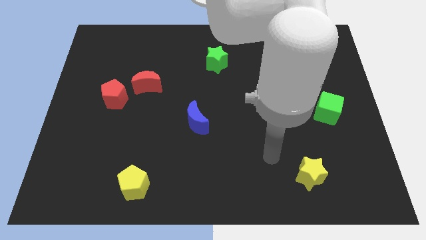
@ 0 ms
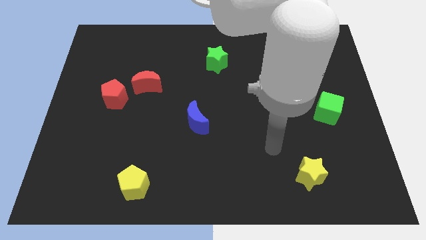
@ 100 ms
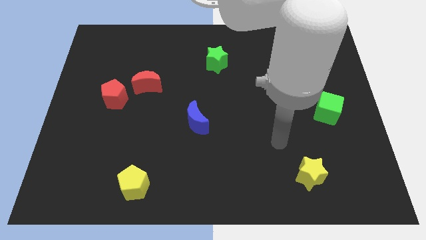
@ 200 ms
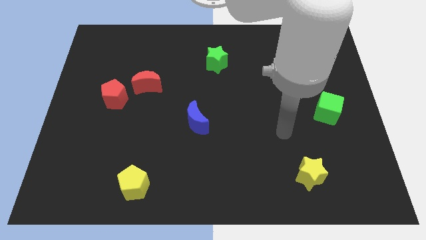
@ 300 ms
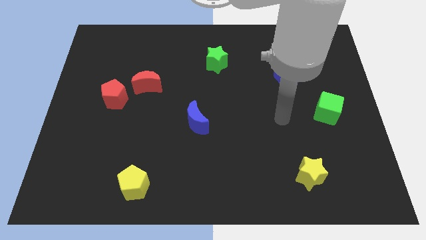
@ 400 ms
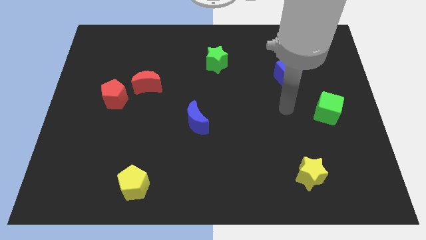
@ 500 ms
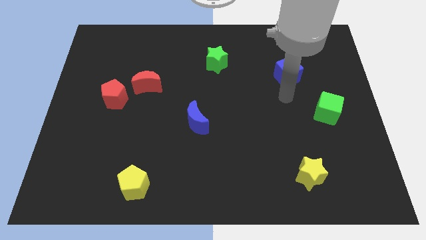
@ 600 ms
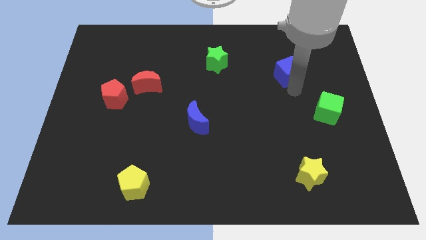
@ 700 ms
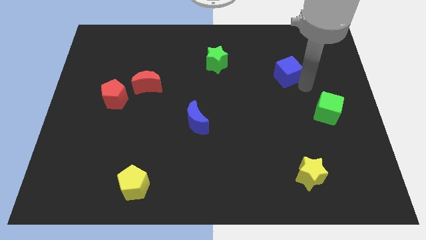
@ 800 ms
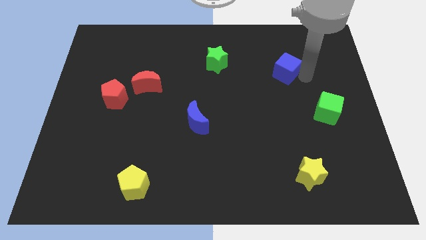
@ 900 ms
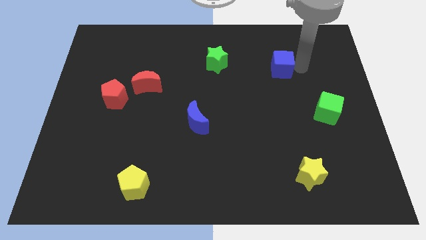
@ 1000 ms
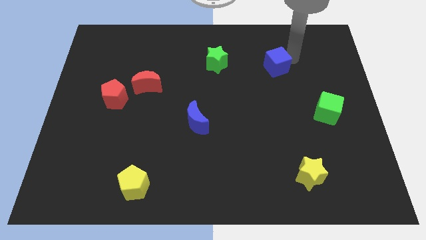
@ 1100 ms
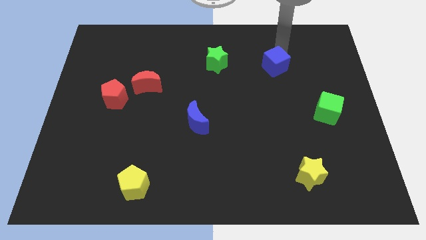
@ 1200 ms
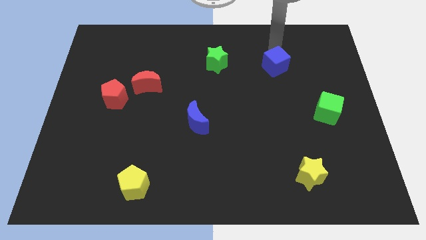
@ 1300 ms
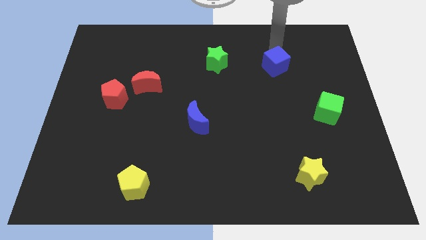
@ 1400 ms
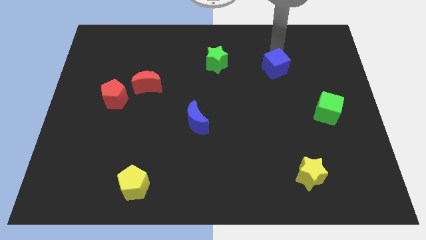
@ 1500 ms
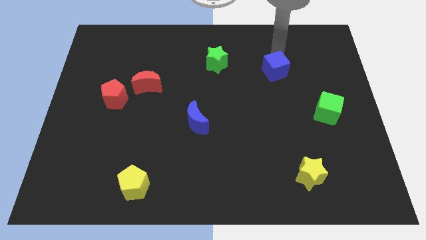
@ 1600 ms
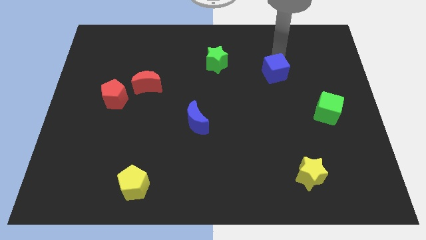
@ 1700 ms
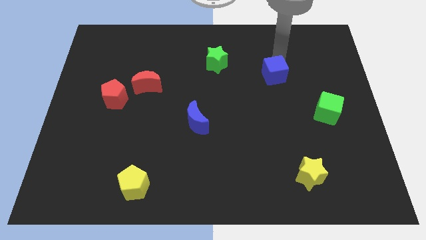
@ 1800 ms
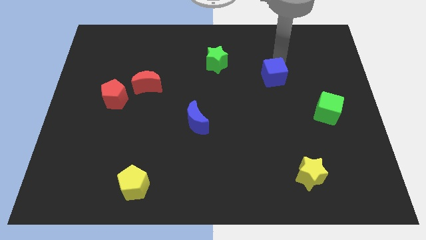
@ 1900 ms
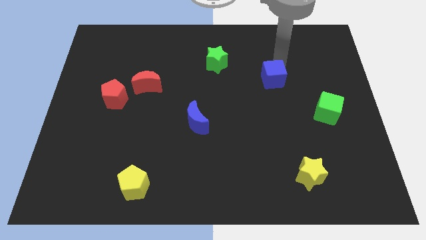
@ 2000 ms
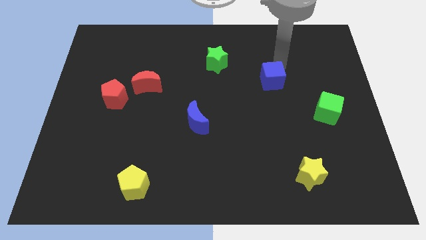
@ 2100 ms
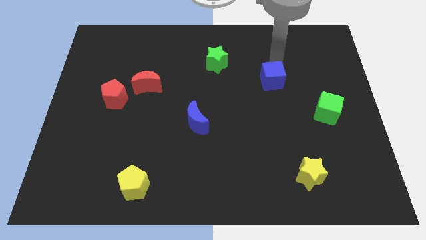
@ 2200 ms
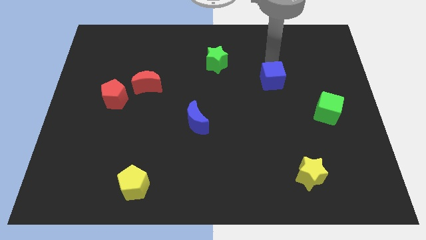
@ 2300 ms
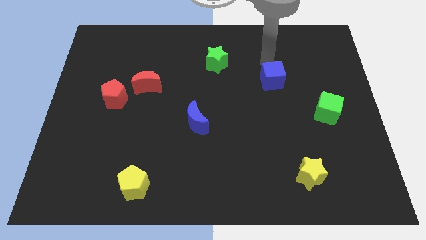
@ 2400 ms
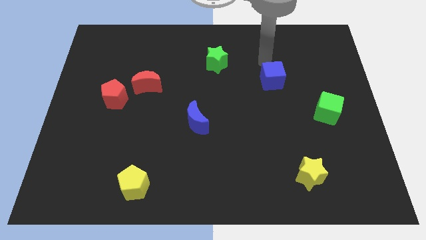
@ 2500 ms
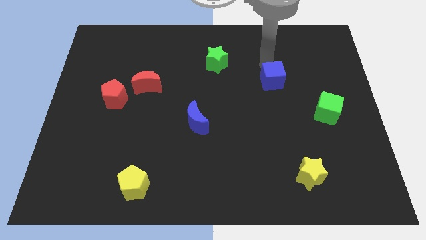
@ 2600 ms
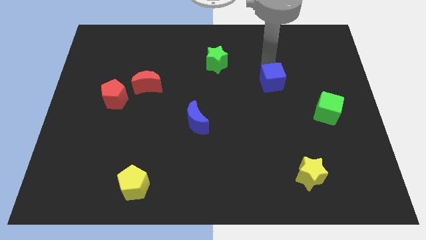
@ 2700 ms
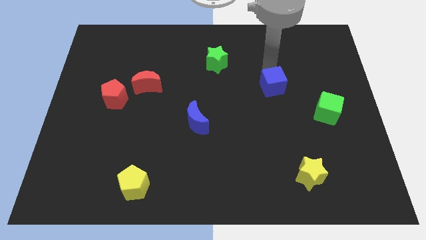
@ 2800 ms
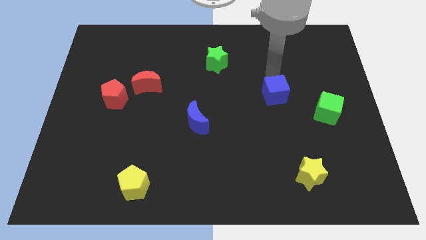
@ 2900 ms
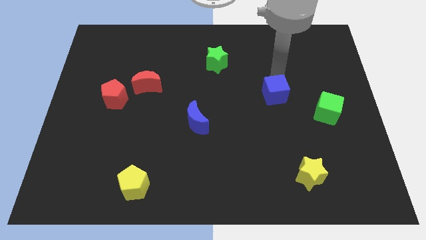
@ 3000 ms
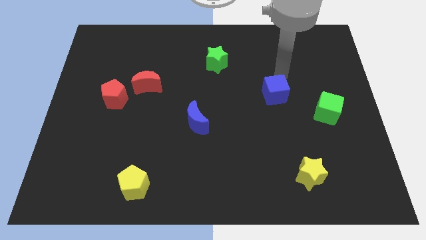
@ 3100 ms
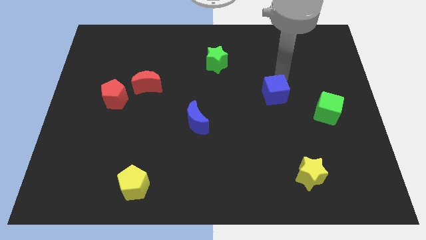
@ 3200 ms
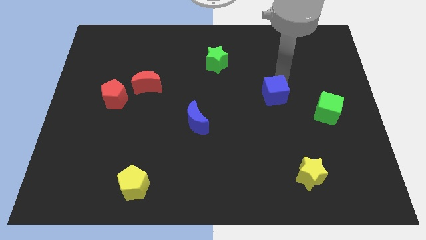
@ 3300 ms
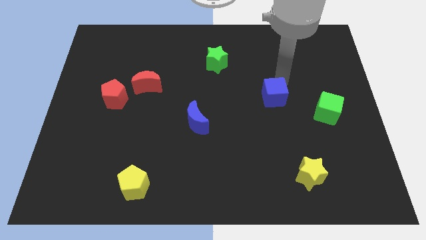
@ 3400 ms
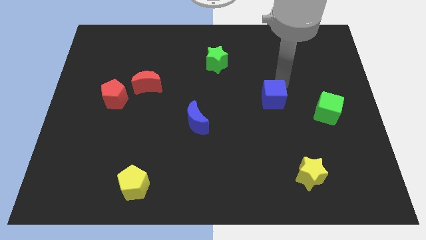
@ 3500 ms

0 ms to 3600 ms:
slide the blue cube slightly downwards

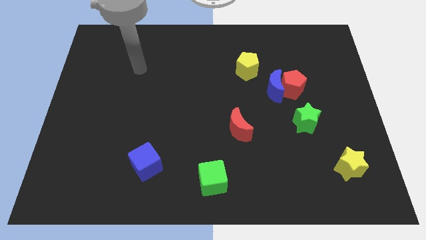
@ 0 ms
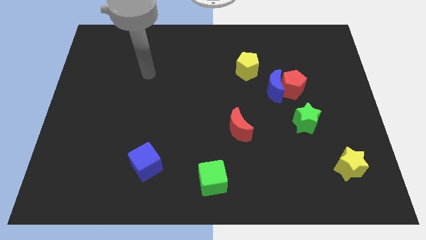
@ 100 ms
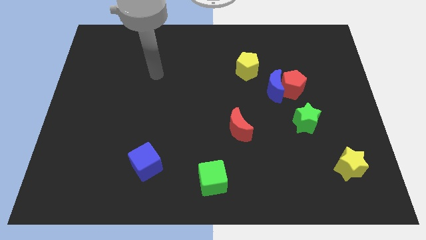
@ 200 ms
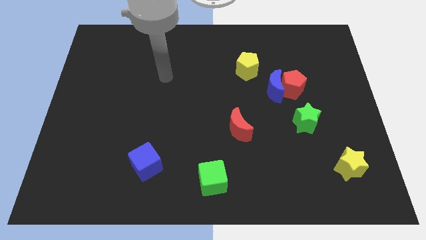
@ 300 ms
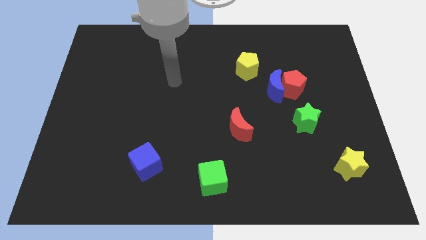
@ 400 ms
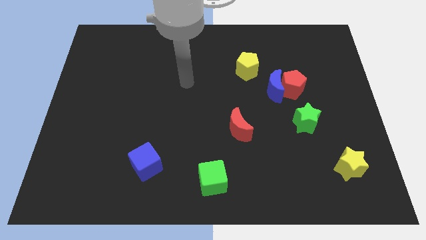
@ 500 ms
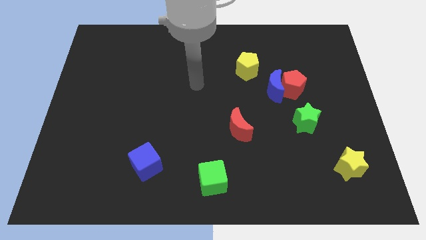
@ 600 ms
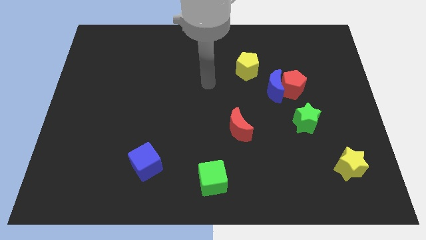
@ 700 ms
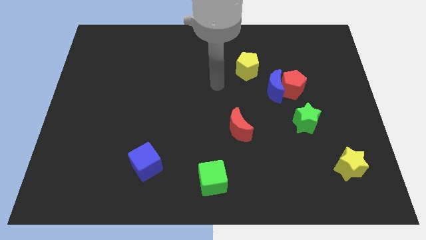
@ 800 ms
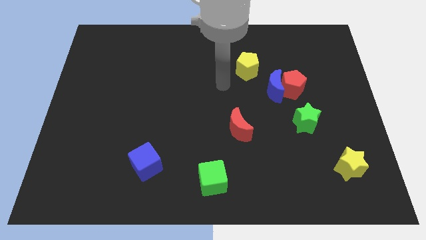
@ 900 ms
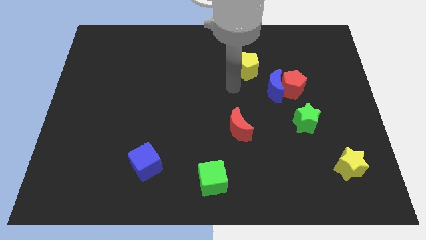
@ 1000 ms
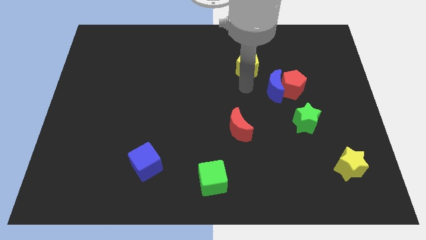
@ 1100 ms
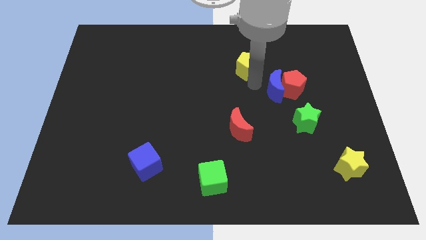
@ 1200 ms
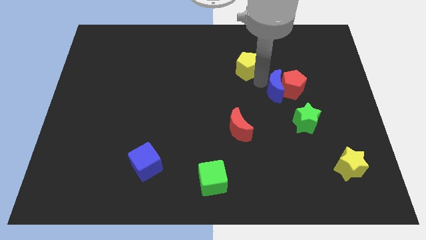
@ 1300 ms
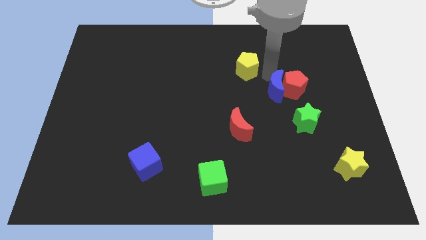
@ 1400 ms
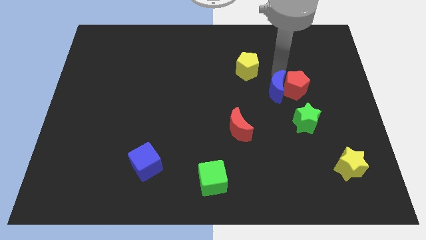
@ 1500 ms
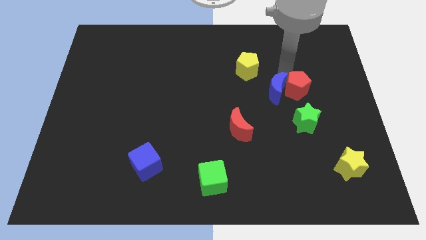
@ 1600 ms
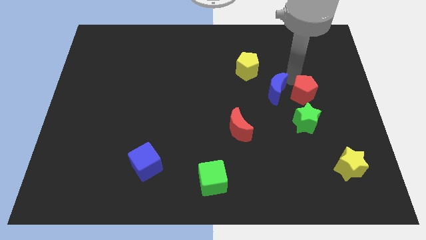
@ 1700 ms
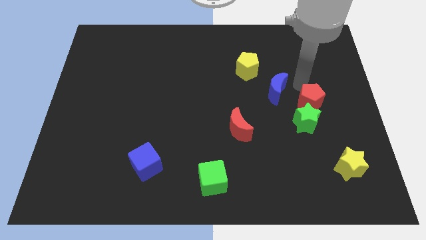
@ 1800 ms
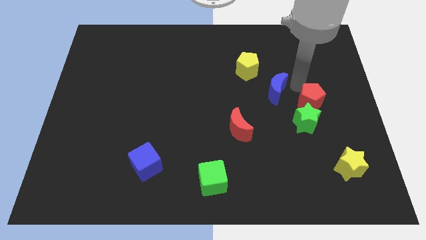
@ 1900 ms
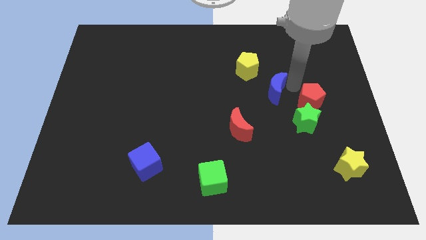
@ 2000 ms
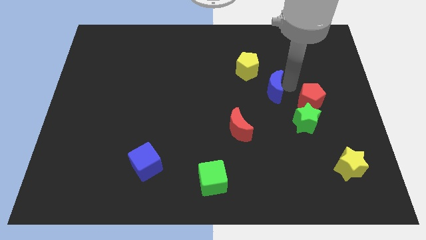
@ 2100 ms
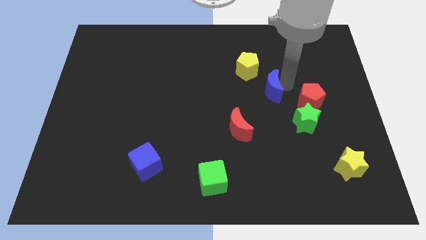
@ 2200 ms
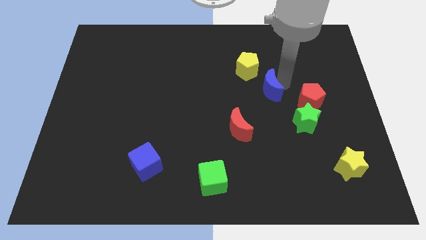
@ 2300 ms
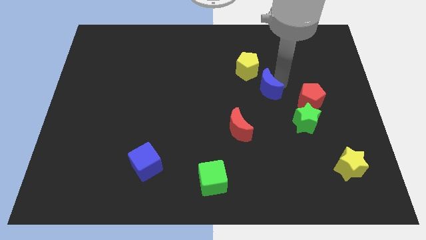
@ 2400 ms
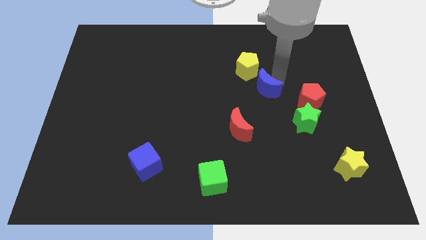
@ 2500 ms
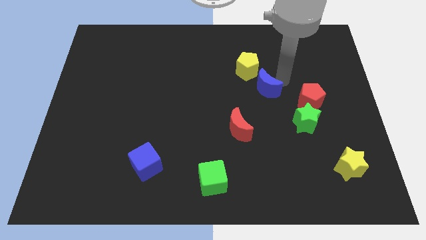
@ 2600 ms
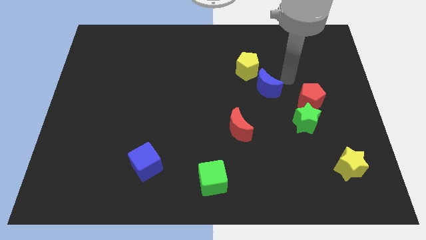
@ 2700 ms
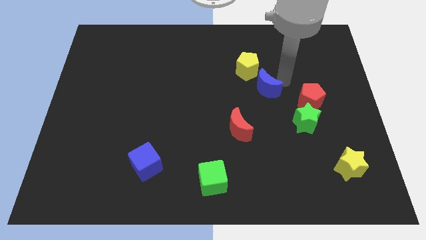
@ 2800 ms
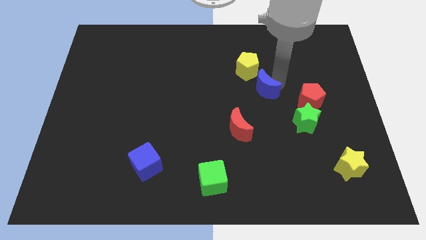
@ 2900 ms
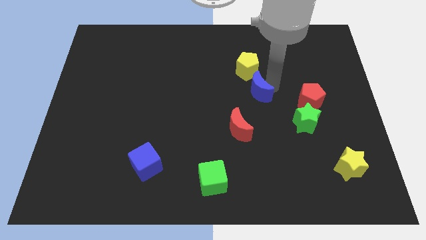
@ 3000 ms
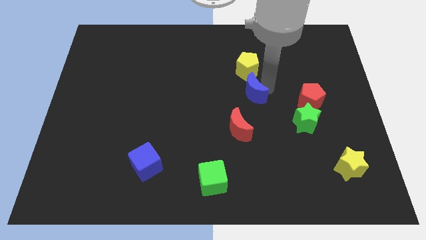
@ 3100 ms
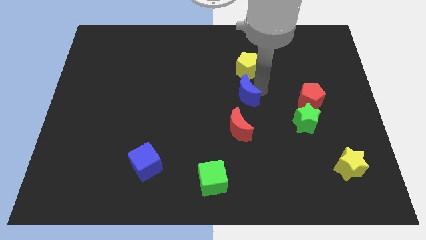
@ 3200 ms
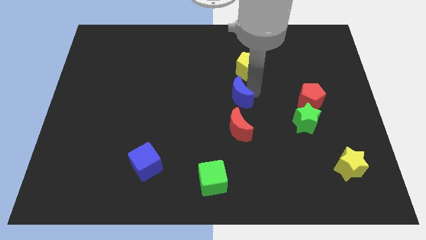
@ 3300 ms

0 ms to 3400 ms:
move the blue moon diagonally downwards and left slightly

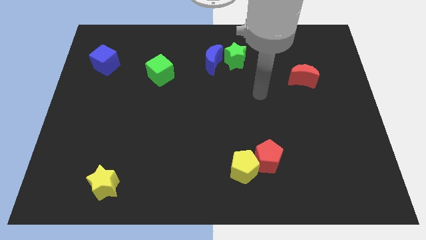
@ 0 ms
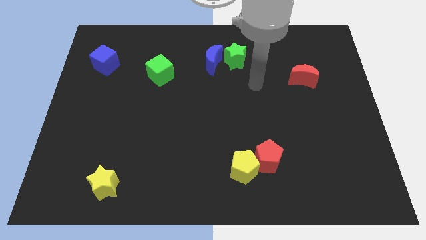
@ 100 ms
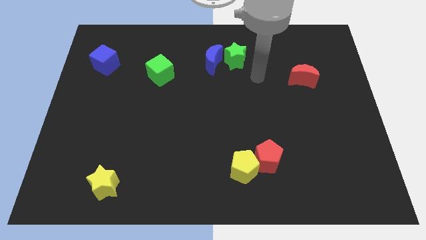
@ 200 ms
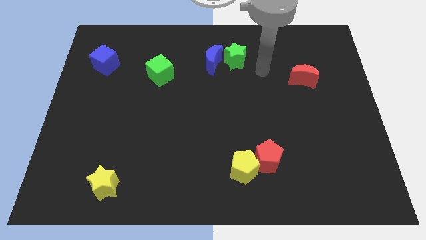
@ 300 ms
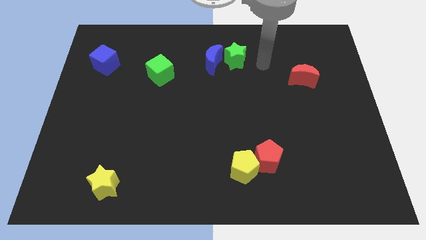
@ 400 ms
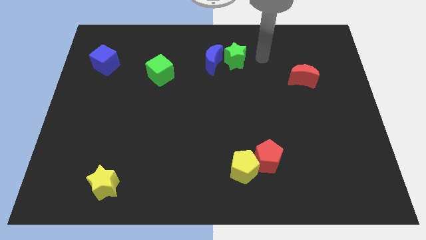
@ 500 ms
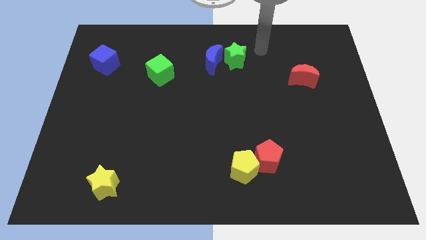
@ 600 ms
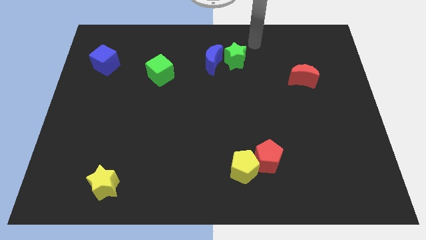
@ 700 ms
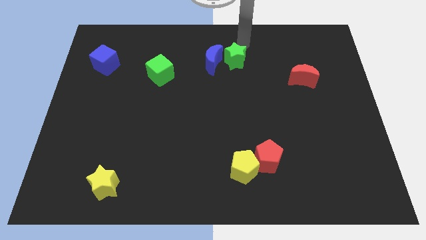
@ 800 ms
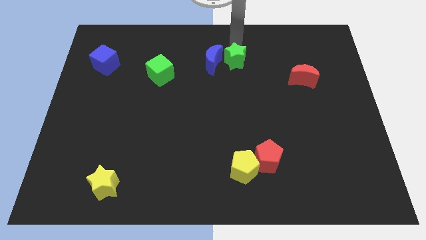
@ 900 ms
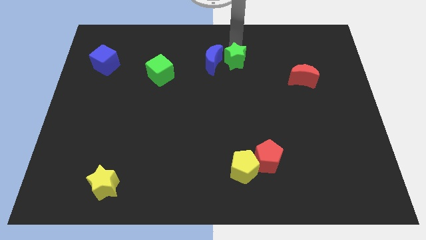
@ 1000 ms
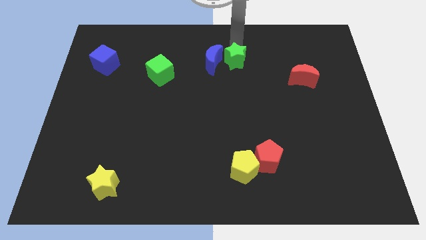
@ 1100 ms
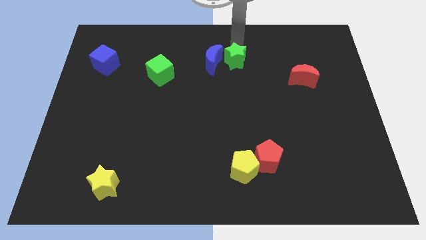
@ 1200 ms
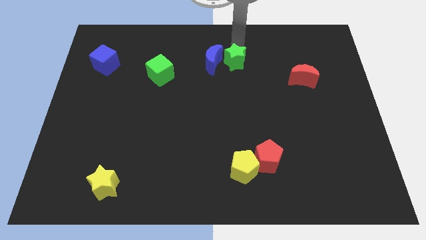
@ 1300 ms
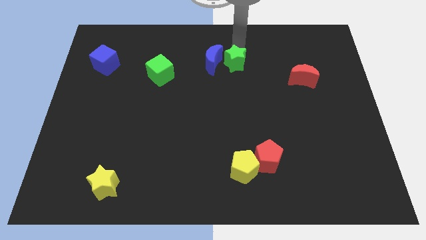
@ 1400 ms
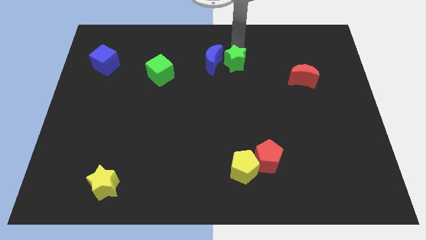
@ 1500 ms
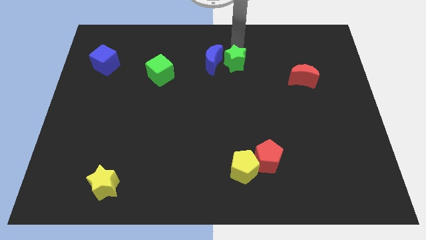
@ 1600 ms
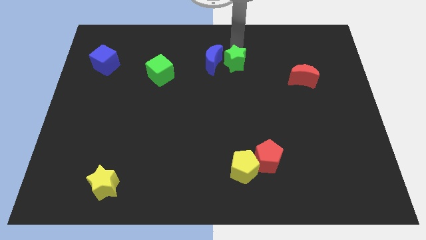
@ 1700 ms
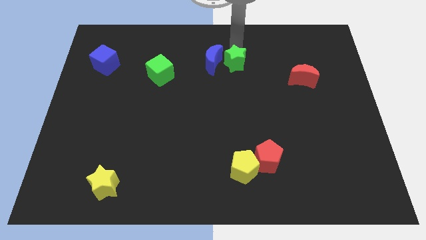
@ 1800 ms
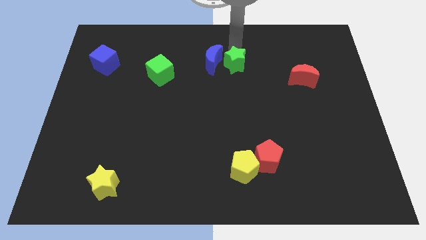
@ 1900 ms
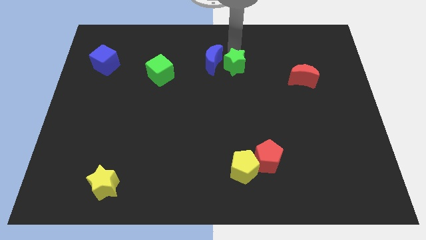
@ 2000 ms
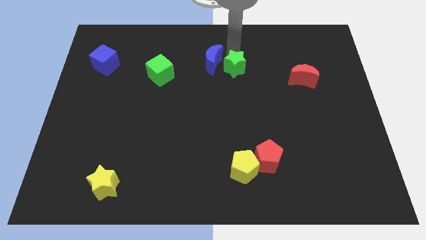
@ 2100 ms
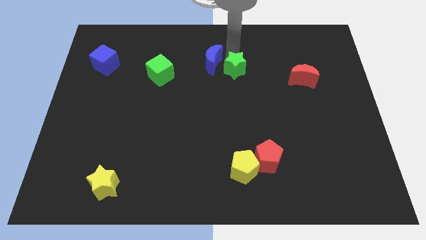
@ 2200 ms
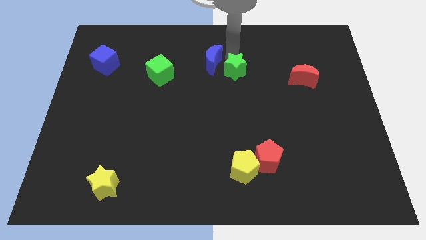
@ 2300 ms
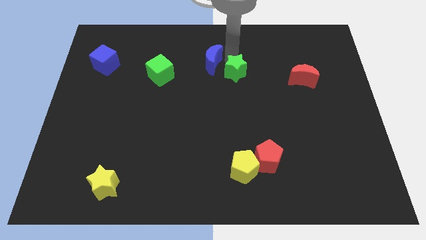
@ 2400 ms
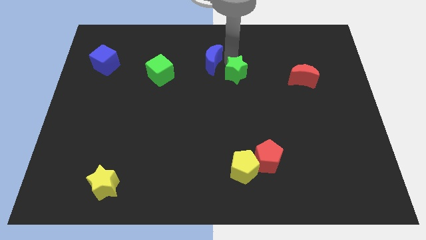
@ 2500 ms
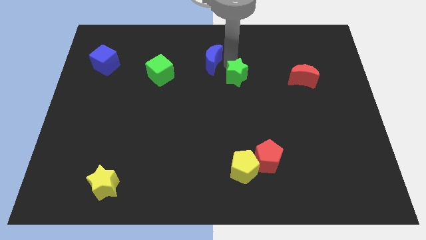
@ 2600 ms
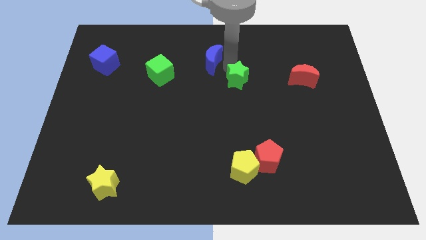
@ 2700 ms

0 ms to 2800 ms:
slightly slide the green star downwards
